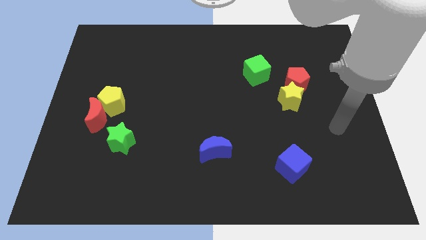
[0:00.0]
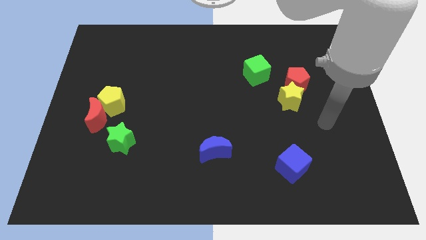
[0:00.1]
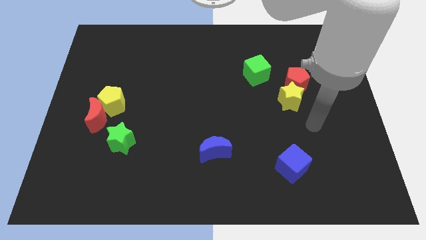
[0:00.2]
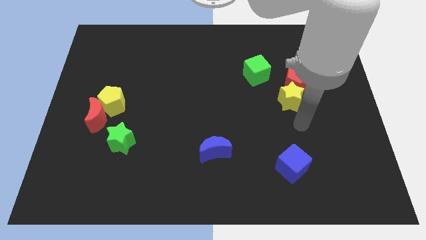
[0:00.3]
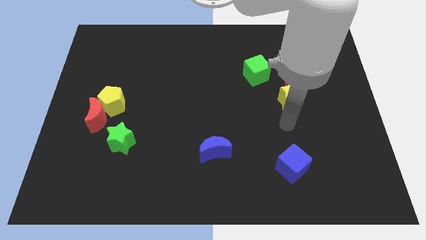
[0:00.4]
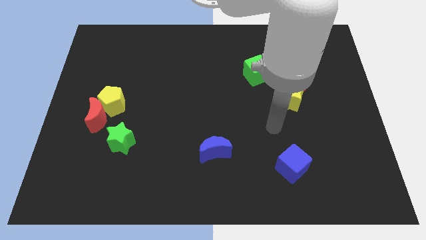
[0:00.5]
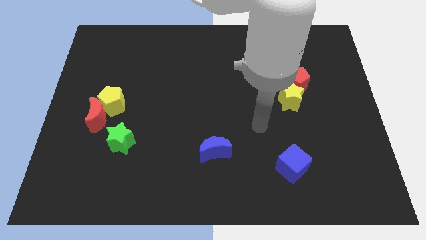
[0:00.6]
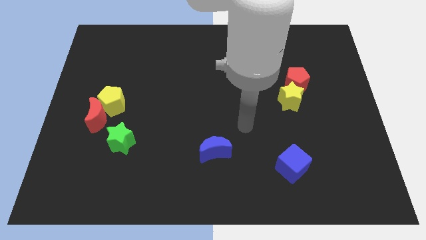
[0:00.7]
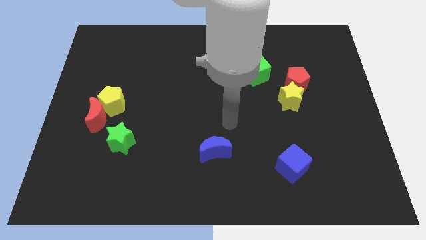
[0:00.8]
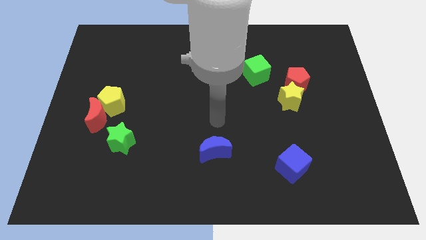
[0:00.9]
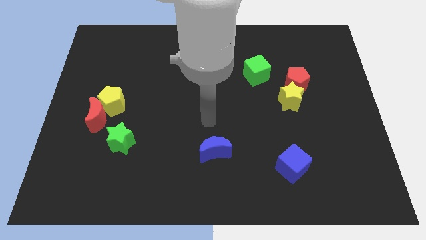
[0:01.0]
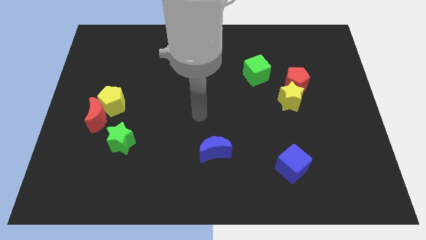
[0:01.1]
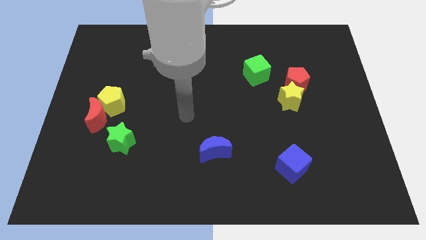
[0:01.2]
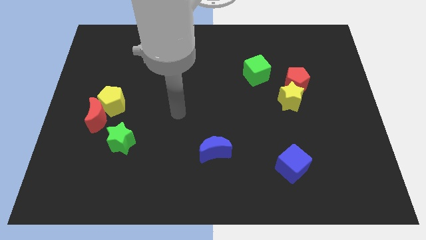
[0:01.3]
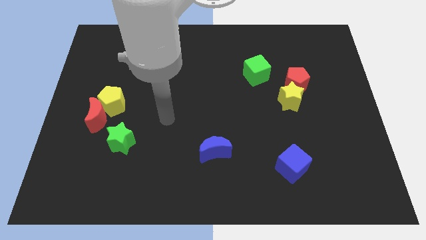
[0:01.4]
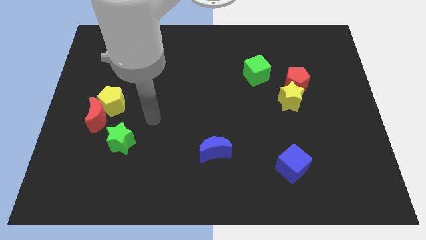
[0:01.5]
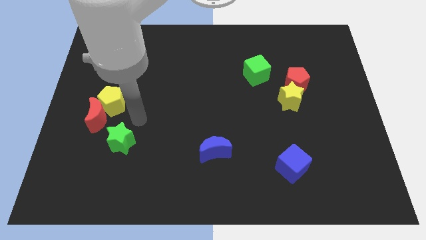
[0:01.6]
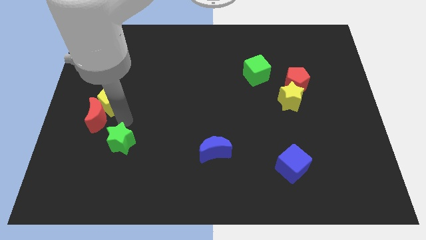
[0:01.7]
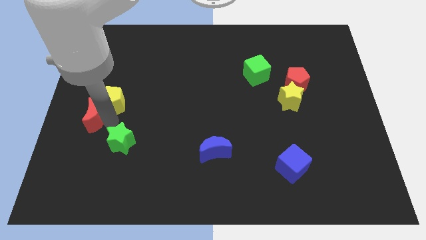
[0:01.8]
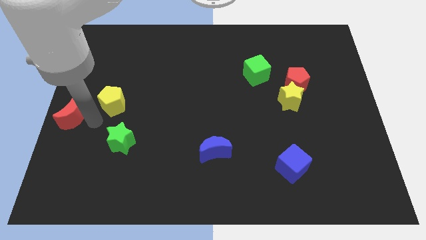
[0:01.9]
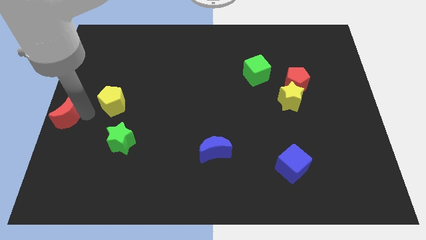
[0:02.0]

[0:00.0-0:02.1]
separate the yellow pentagon from the red moon

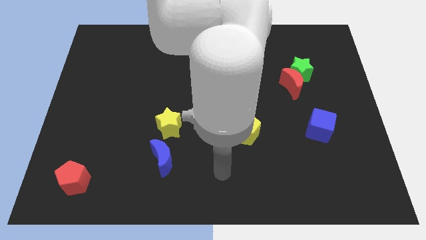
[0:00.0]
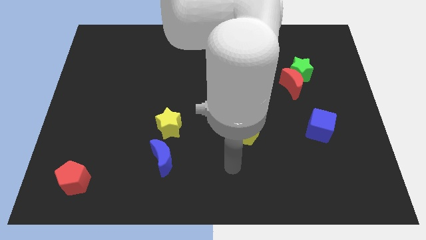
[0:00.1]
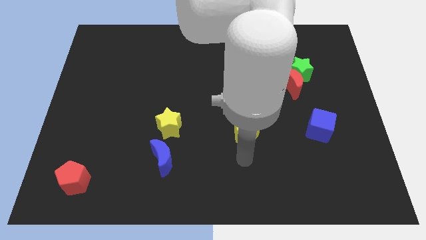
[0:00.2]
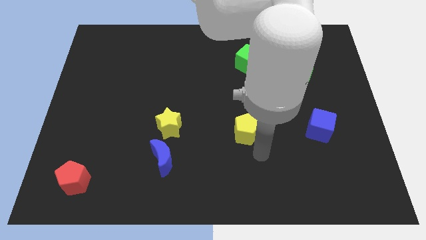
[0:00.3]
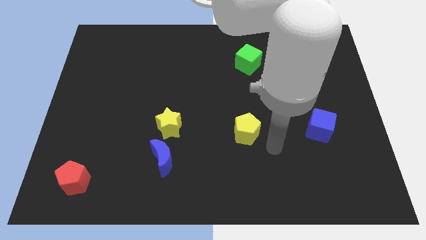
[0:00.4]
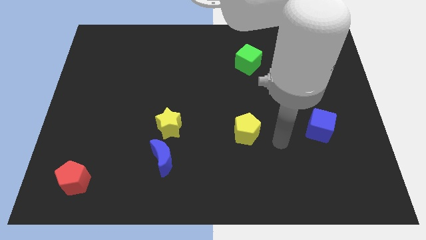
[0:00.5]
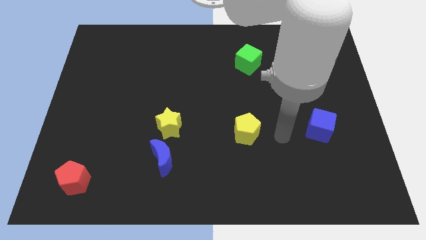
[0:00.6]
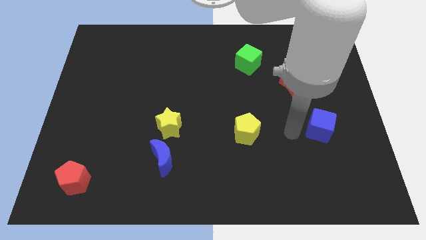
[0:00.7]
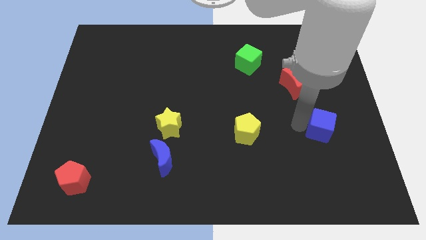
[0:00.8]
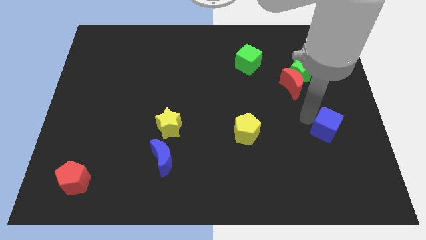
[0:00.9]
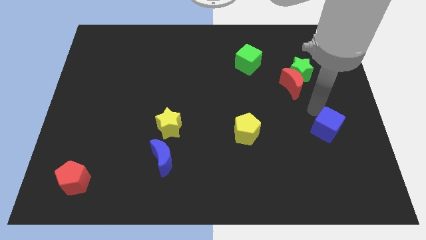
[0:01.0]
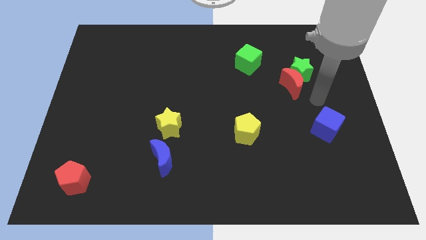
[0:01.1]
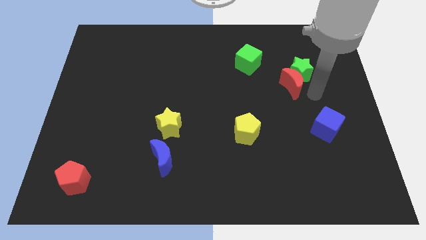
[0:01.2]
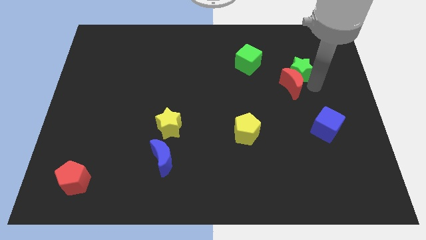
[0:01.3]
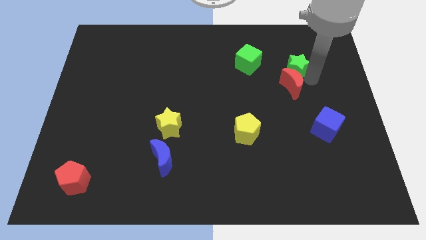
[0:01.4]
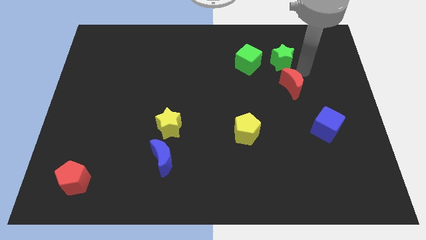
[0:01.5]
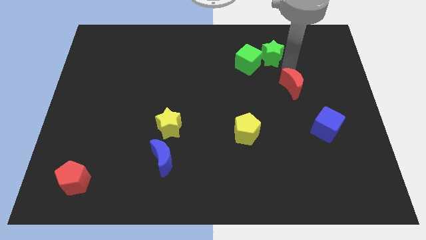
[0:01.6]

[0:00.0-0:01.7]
move the red moon away from the green star

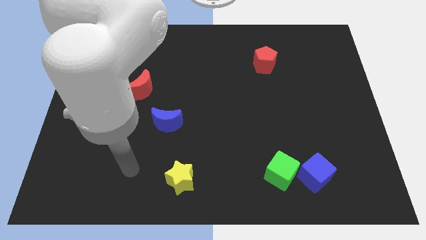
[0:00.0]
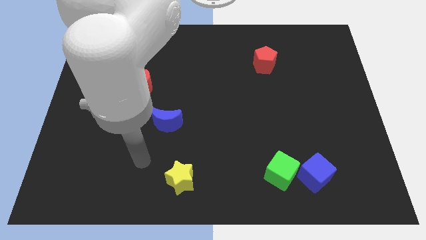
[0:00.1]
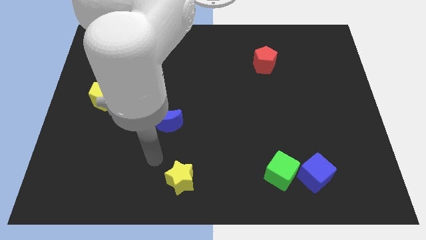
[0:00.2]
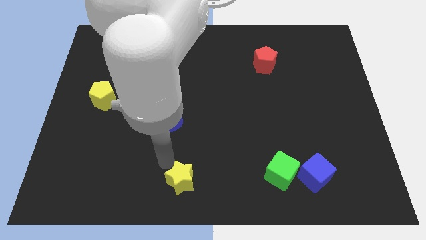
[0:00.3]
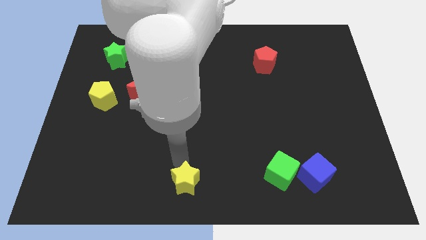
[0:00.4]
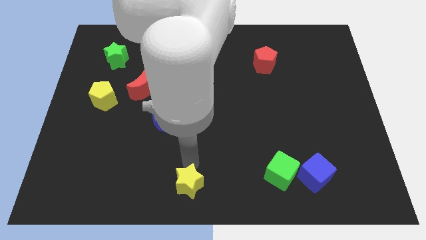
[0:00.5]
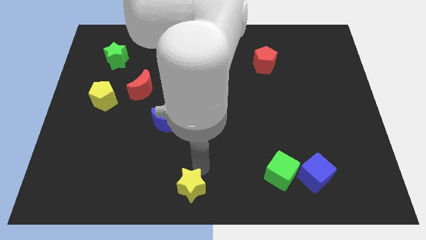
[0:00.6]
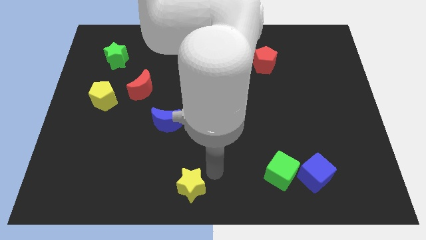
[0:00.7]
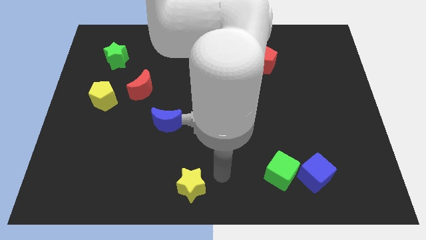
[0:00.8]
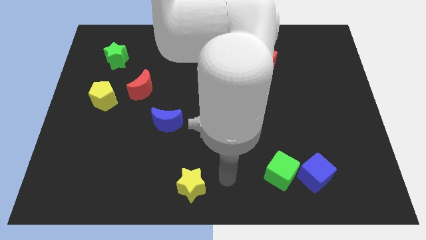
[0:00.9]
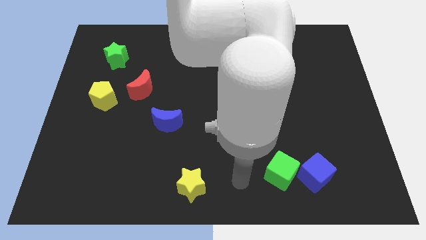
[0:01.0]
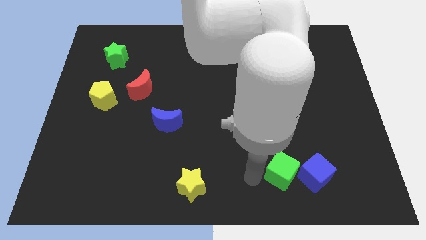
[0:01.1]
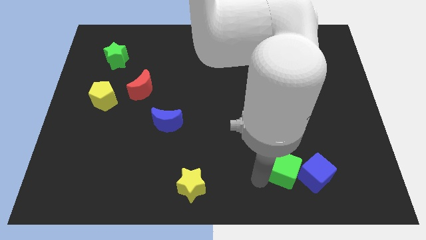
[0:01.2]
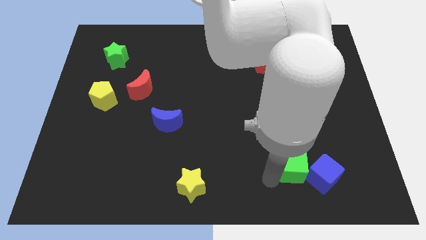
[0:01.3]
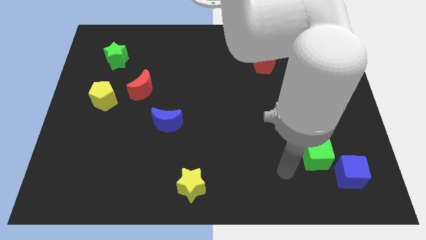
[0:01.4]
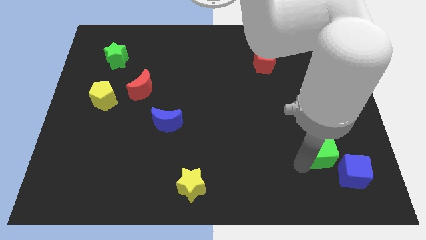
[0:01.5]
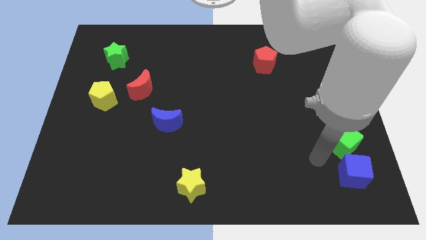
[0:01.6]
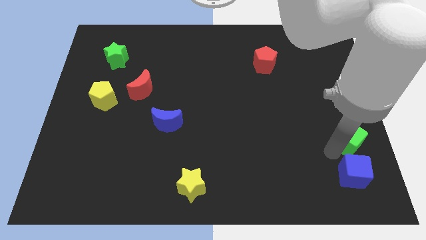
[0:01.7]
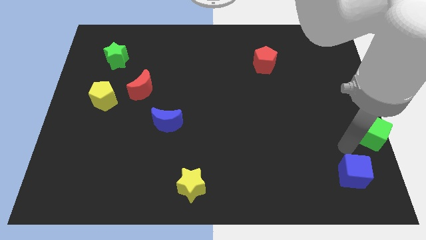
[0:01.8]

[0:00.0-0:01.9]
separate the blue cube from the green cube

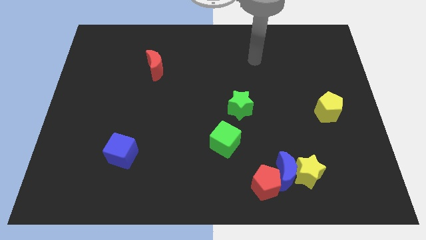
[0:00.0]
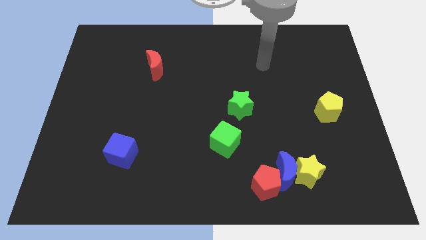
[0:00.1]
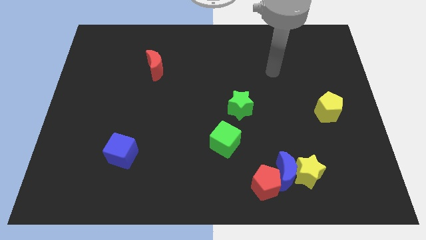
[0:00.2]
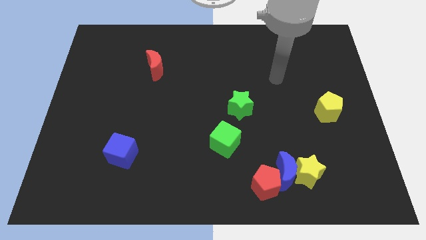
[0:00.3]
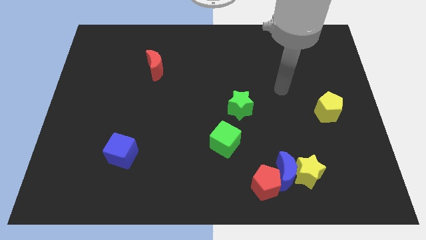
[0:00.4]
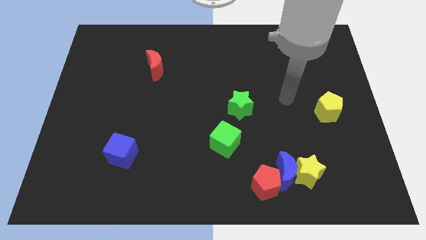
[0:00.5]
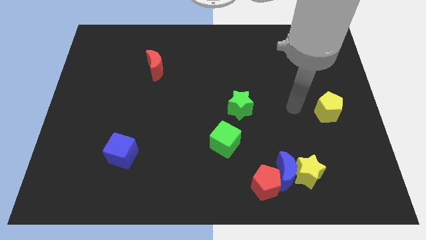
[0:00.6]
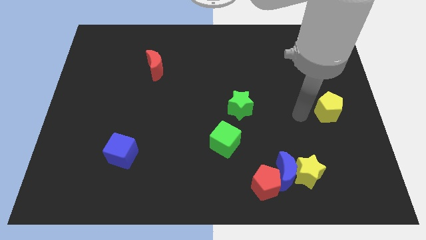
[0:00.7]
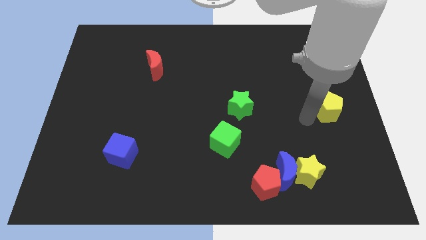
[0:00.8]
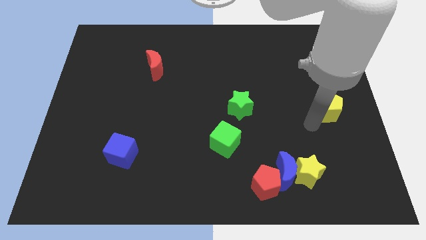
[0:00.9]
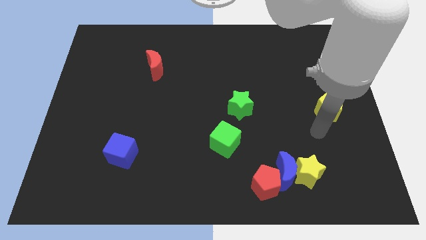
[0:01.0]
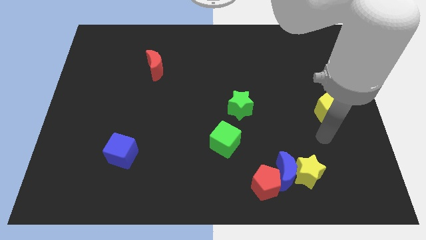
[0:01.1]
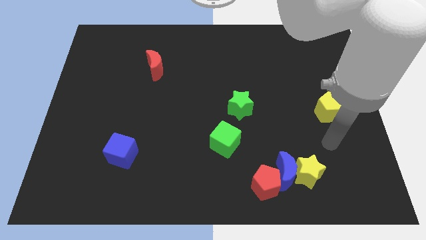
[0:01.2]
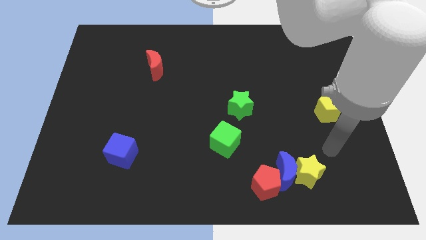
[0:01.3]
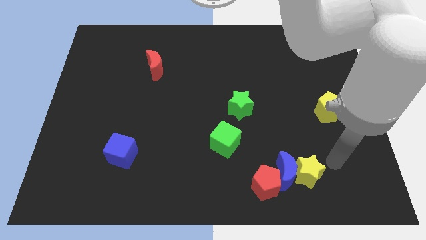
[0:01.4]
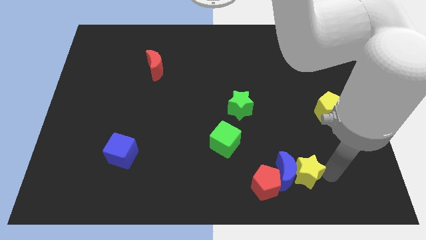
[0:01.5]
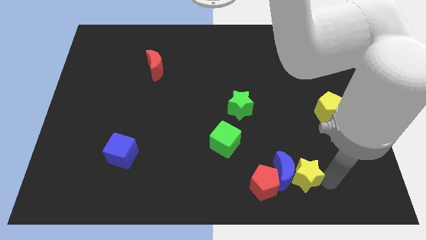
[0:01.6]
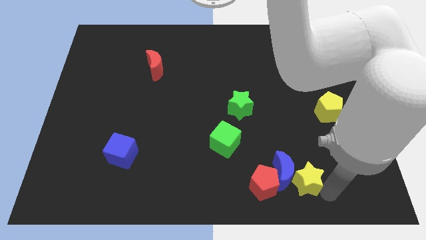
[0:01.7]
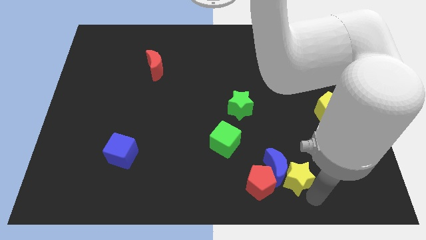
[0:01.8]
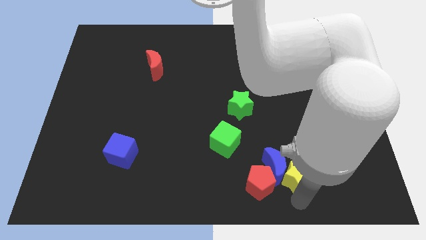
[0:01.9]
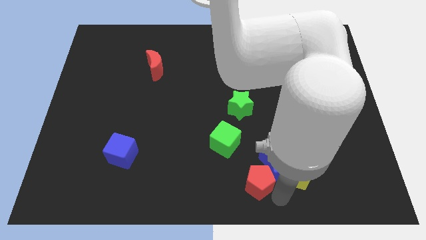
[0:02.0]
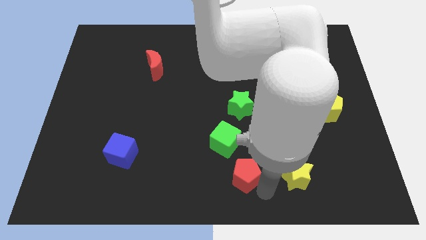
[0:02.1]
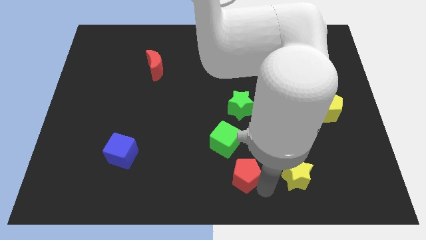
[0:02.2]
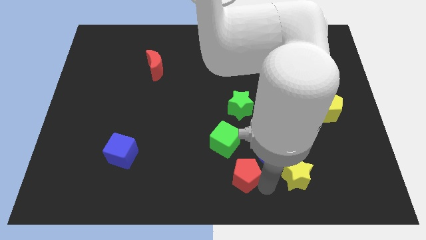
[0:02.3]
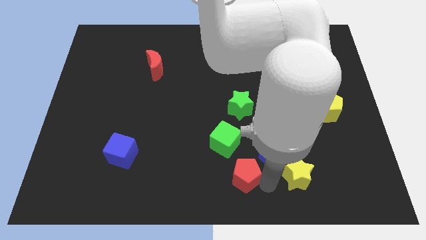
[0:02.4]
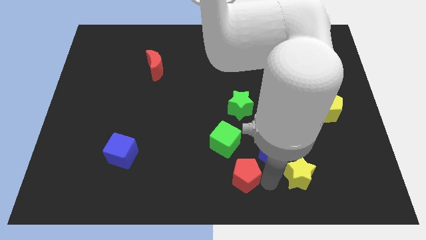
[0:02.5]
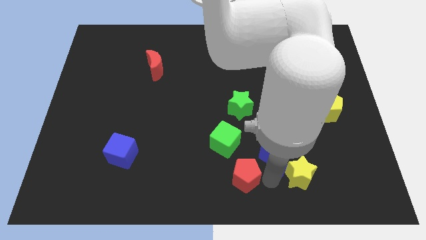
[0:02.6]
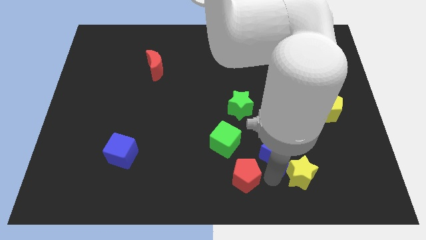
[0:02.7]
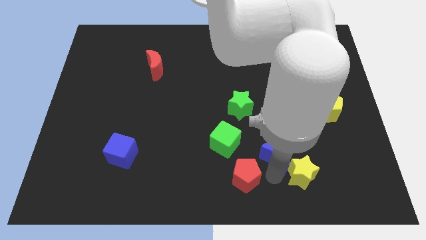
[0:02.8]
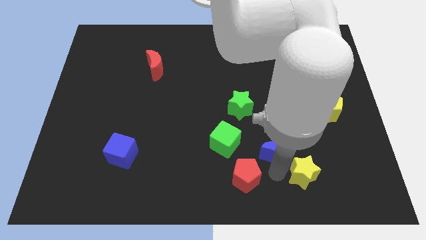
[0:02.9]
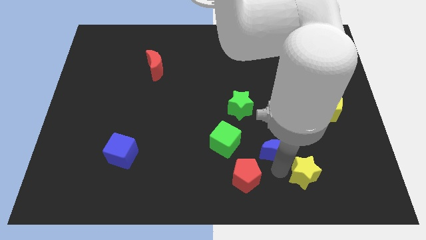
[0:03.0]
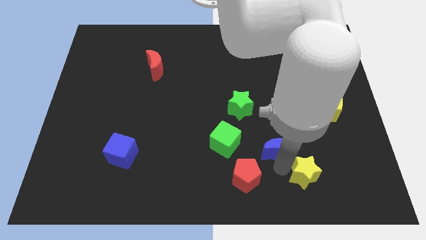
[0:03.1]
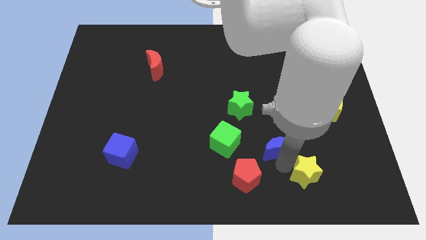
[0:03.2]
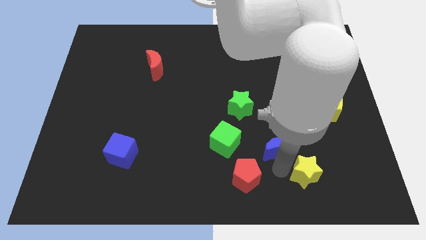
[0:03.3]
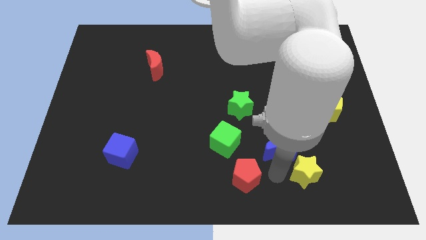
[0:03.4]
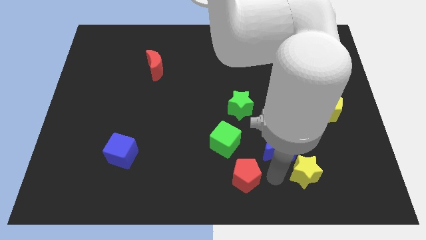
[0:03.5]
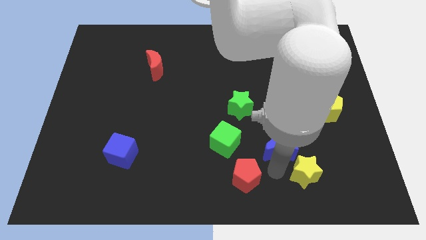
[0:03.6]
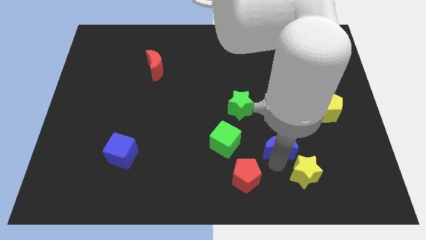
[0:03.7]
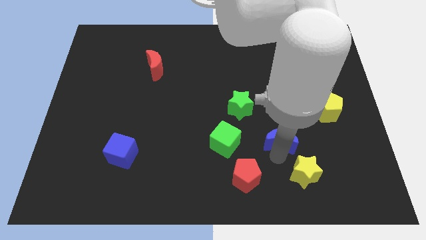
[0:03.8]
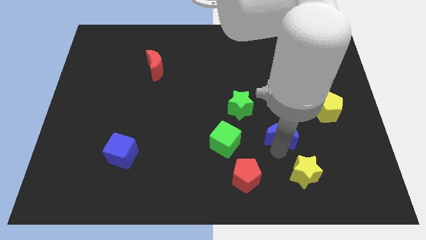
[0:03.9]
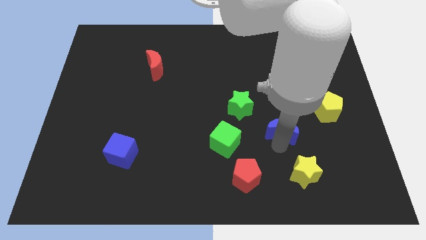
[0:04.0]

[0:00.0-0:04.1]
pull the blue moon apart from the yellow star and red pentagon
